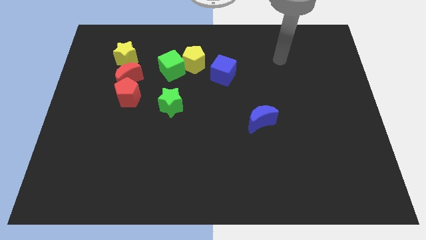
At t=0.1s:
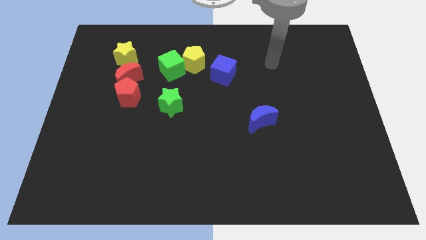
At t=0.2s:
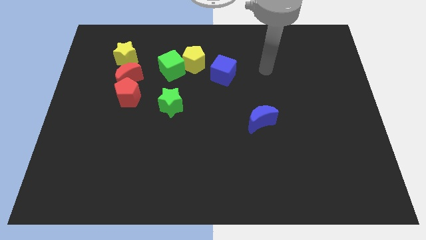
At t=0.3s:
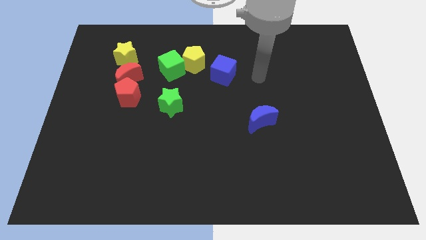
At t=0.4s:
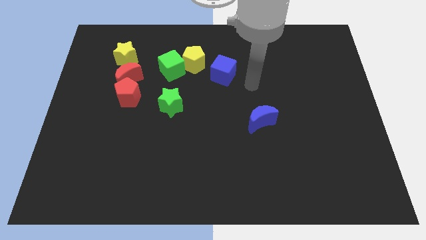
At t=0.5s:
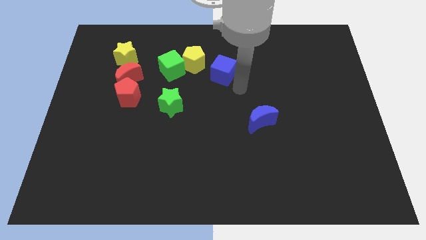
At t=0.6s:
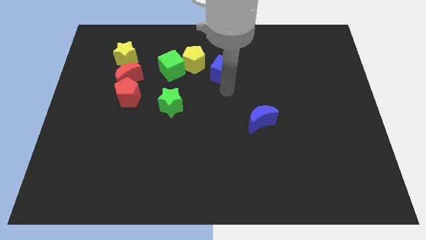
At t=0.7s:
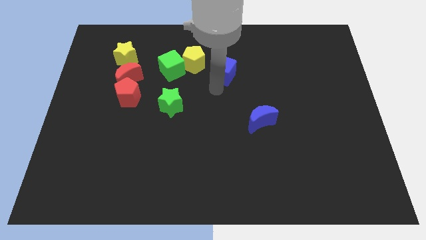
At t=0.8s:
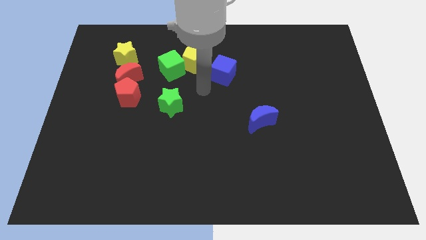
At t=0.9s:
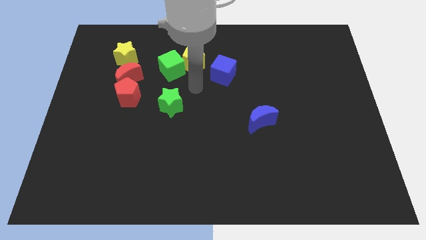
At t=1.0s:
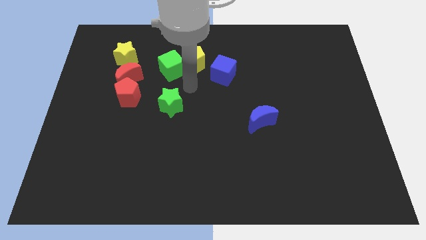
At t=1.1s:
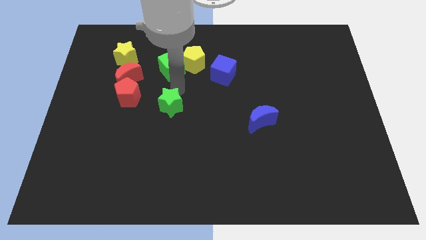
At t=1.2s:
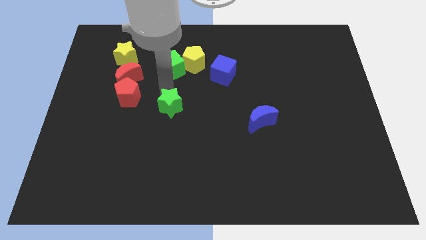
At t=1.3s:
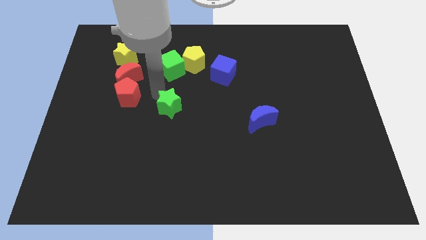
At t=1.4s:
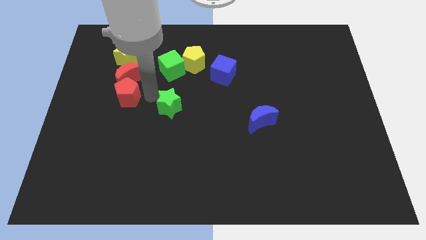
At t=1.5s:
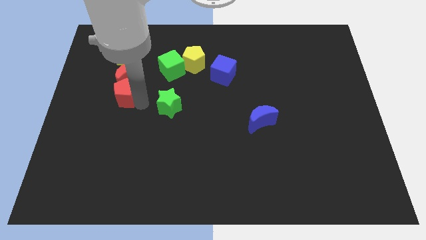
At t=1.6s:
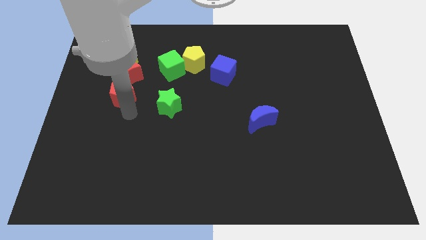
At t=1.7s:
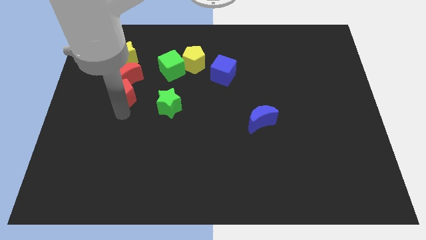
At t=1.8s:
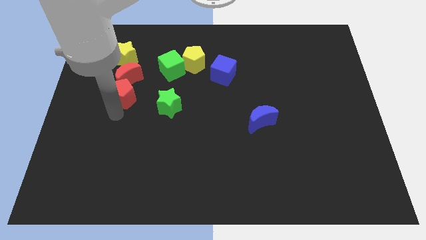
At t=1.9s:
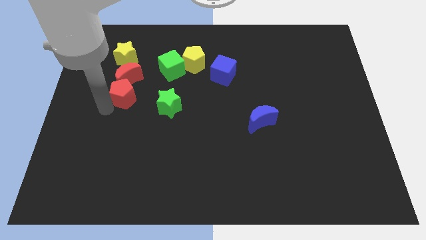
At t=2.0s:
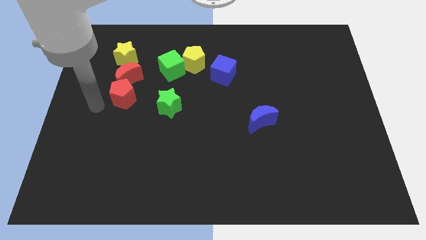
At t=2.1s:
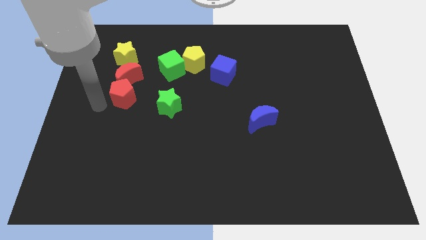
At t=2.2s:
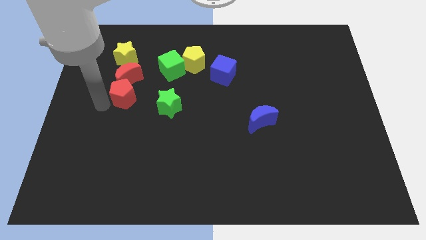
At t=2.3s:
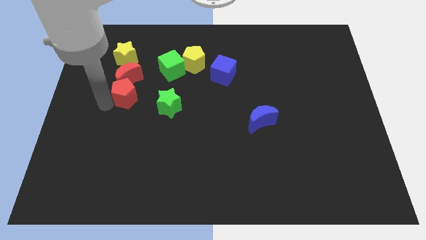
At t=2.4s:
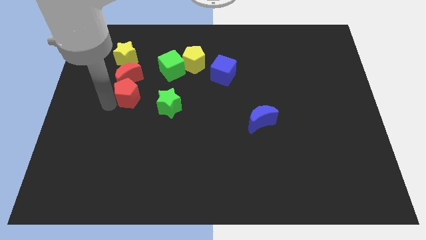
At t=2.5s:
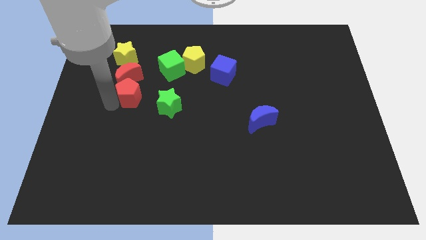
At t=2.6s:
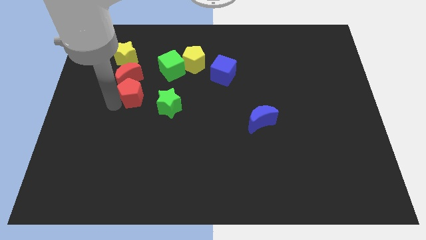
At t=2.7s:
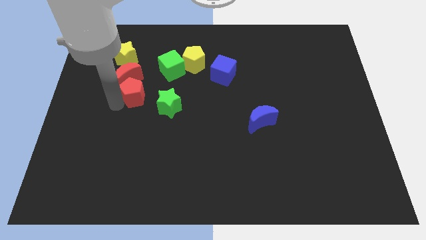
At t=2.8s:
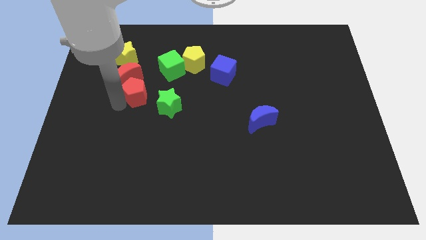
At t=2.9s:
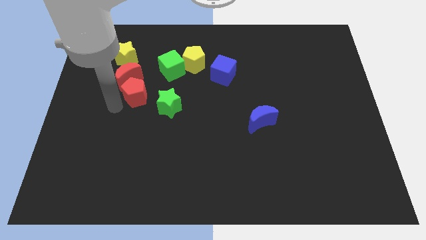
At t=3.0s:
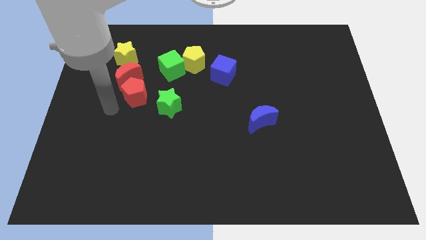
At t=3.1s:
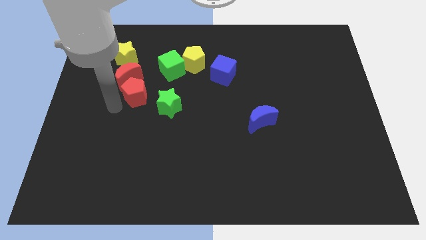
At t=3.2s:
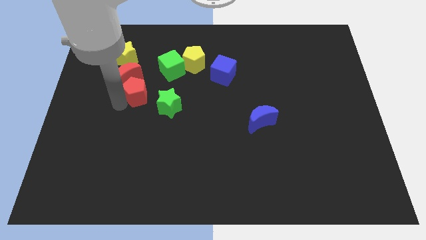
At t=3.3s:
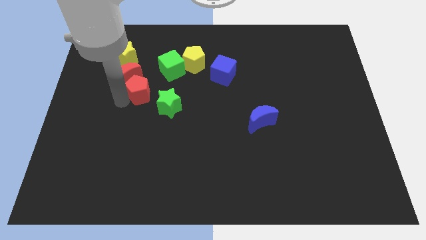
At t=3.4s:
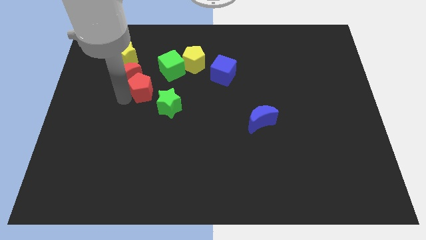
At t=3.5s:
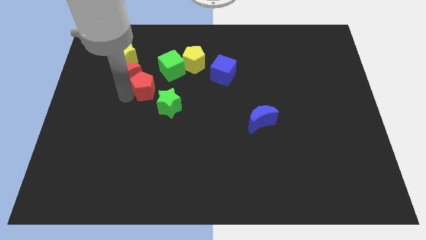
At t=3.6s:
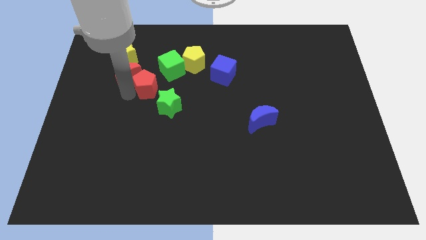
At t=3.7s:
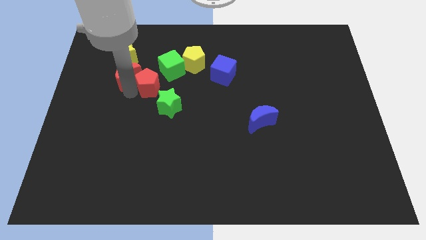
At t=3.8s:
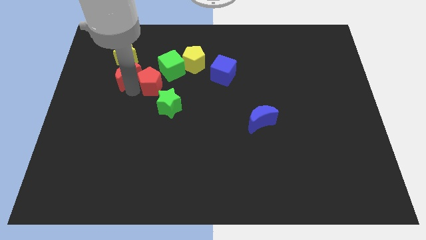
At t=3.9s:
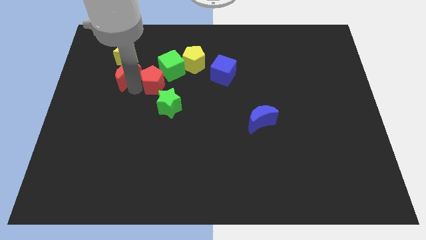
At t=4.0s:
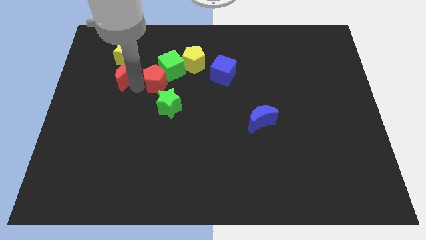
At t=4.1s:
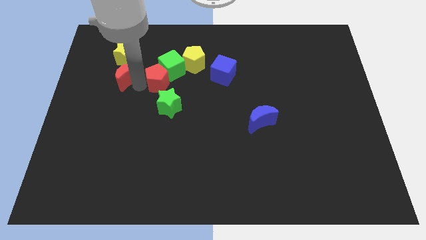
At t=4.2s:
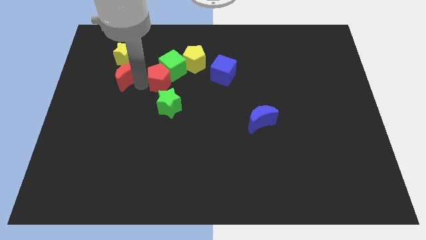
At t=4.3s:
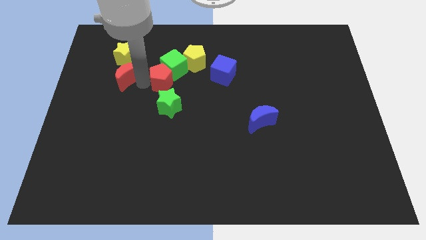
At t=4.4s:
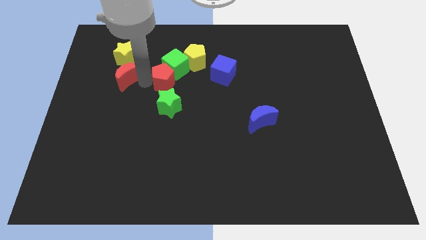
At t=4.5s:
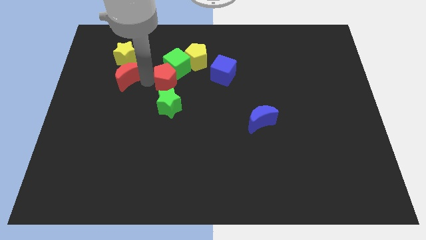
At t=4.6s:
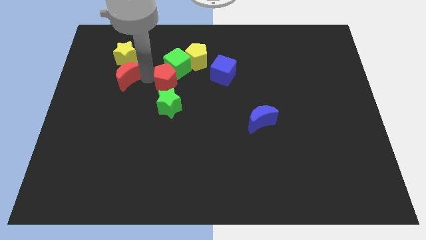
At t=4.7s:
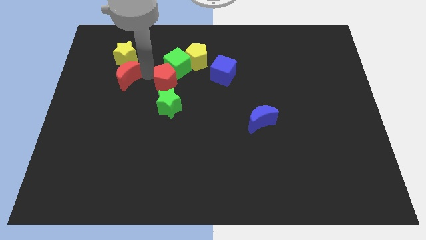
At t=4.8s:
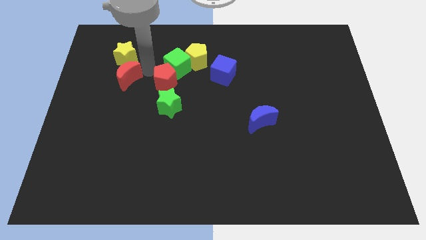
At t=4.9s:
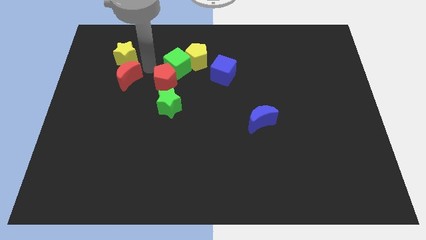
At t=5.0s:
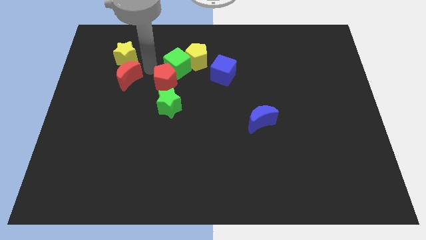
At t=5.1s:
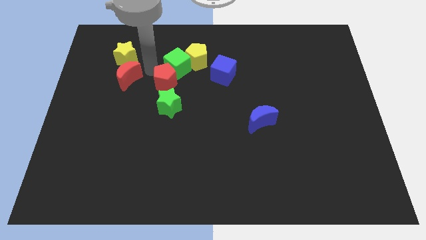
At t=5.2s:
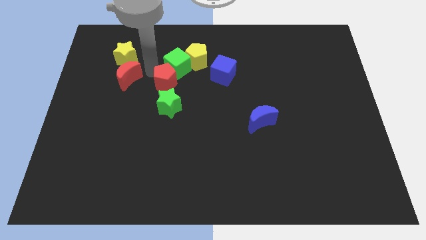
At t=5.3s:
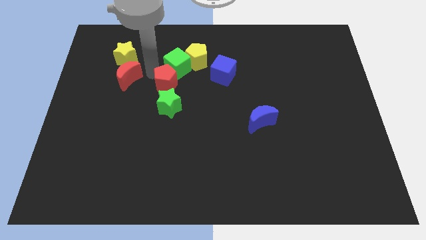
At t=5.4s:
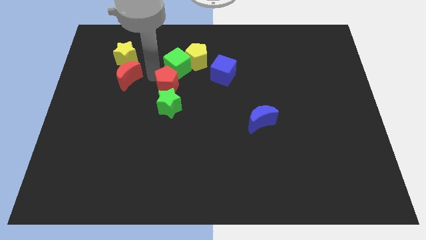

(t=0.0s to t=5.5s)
put the red pentagon to the middle of the board
